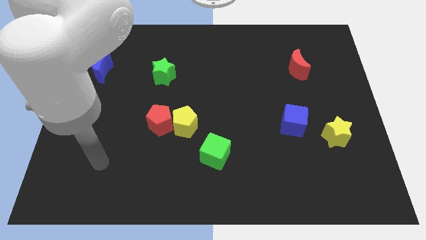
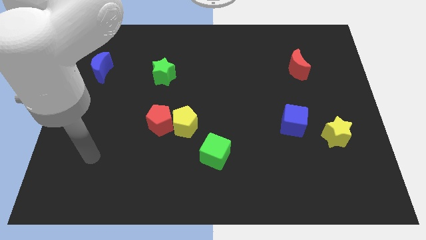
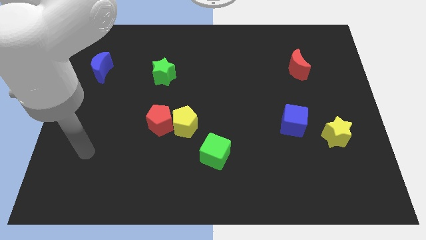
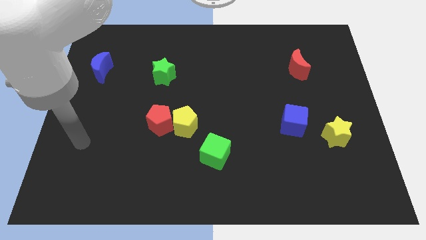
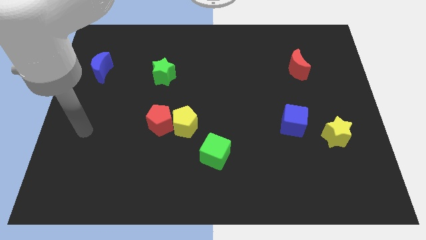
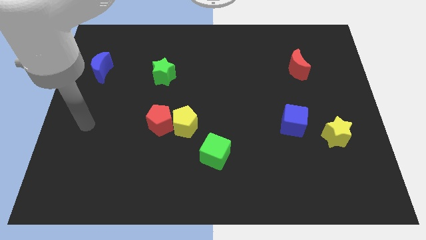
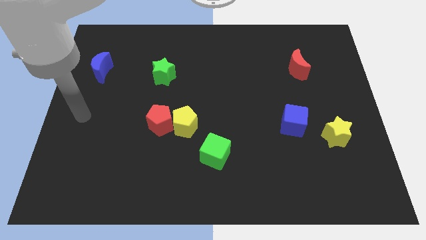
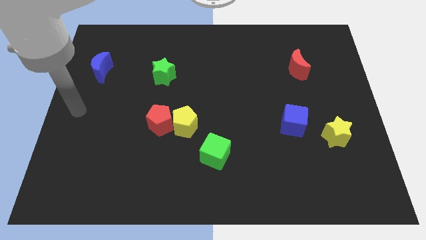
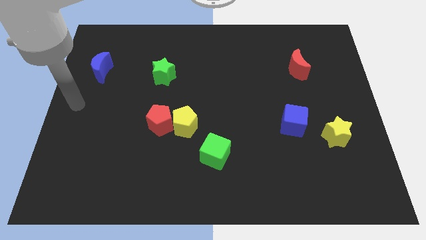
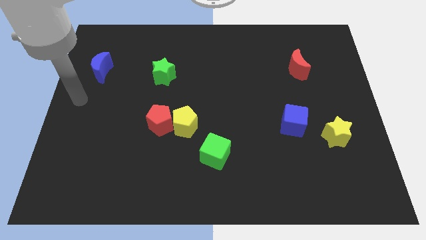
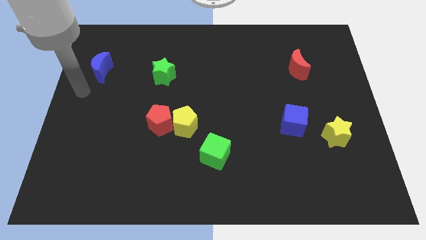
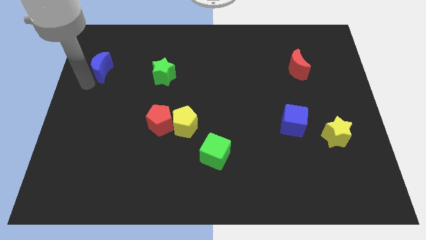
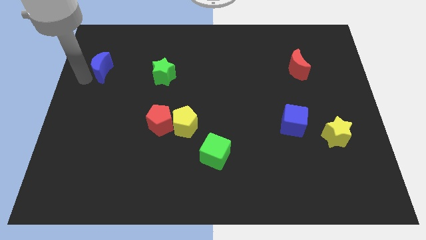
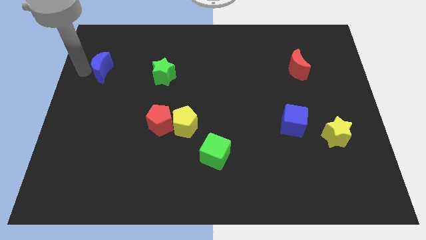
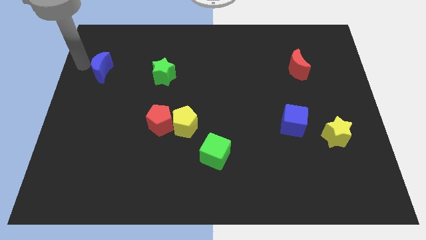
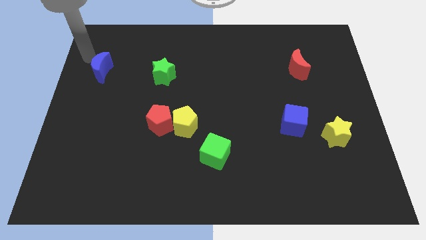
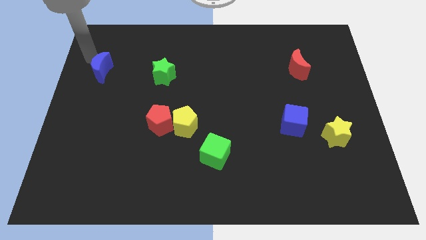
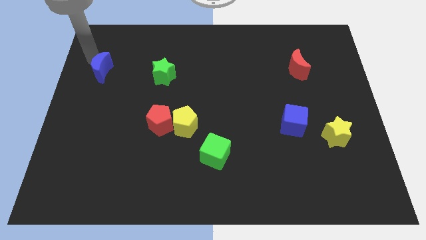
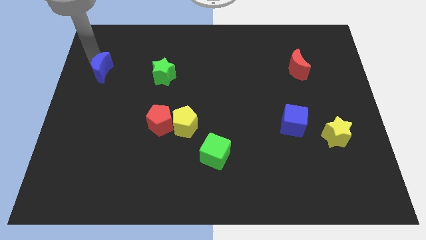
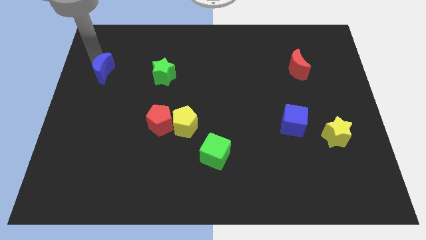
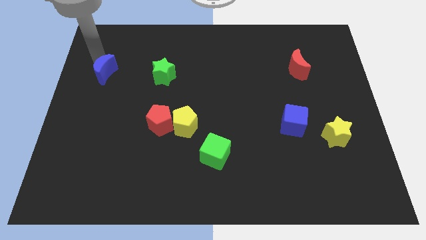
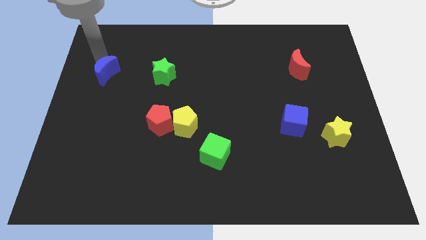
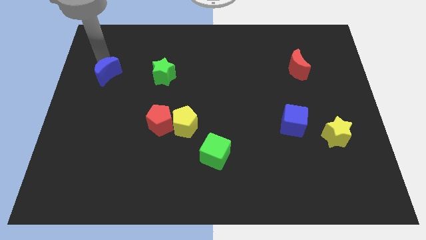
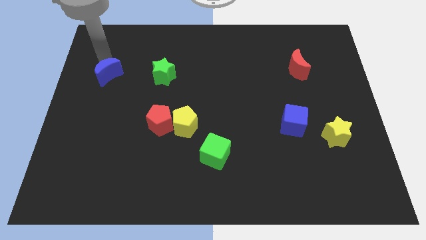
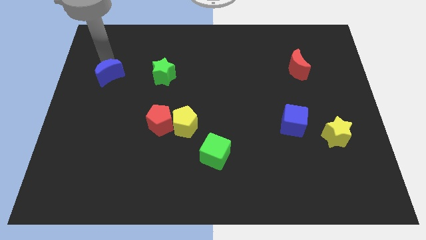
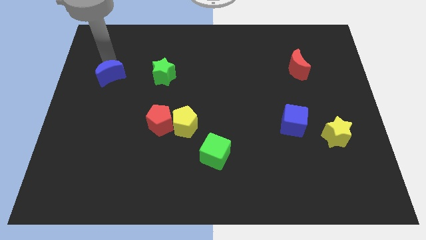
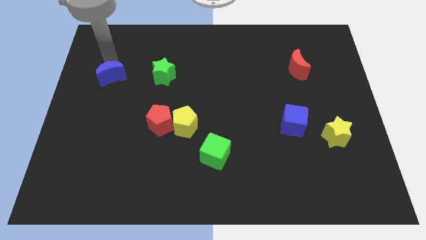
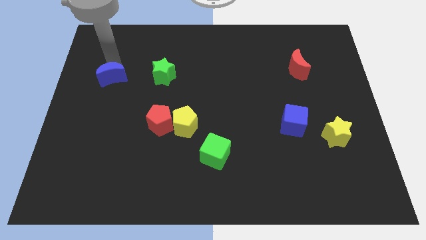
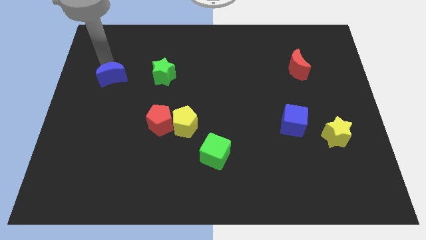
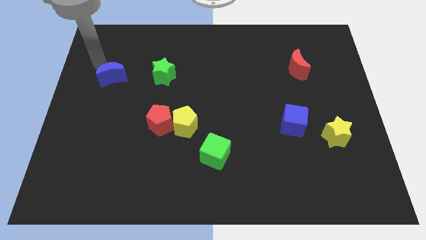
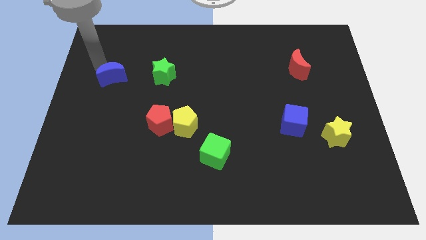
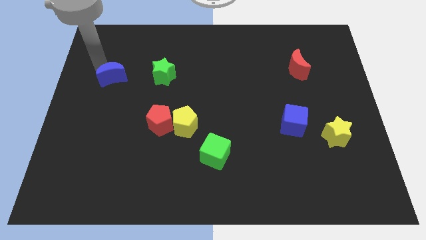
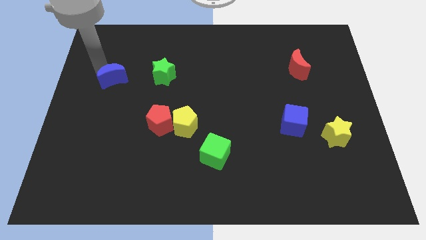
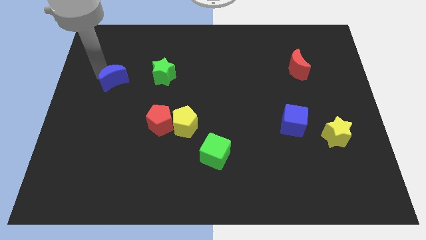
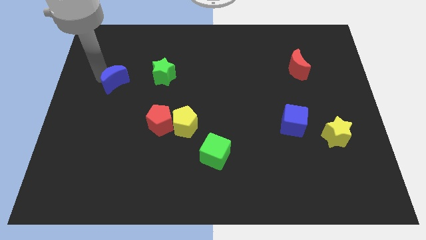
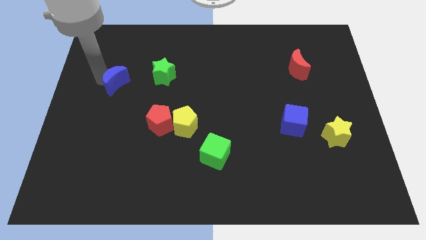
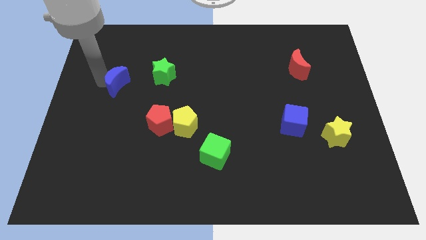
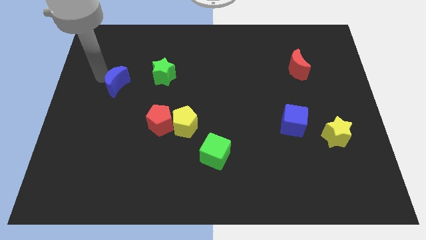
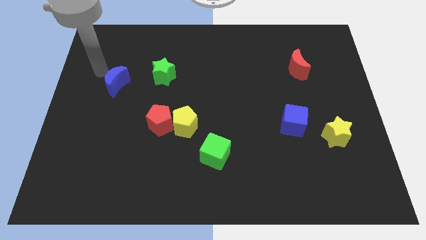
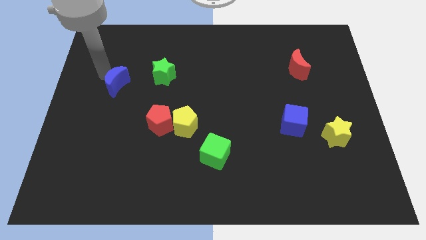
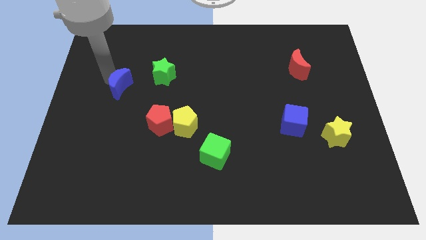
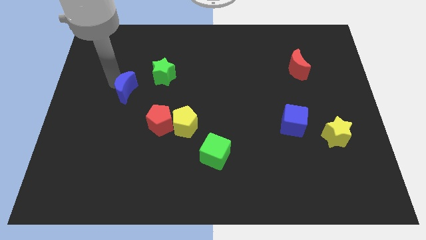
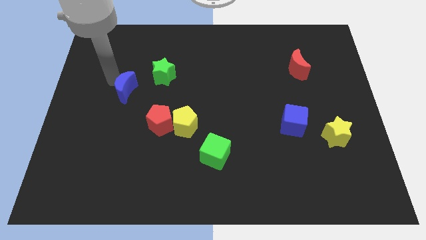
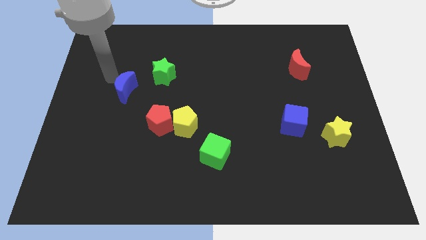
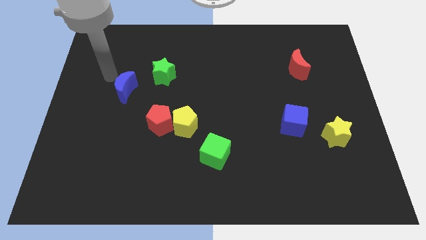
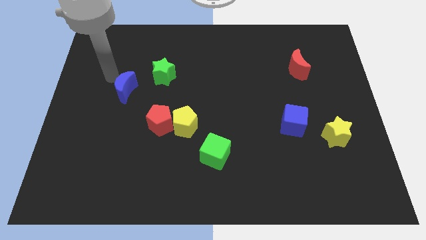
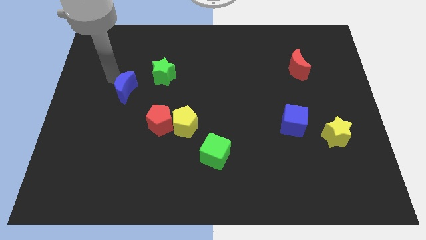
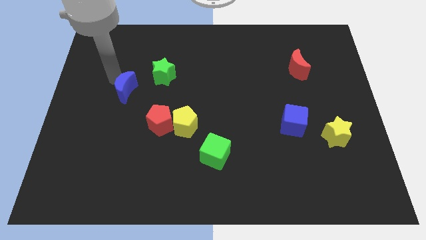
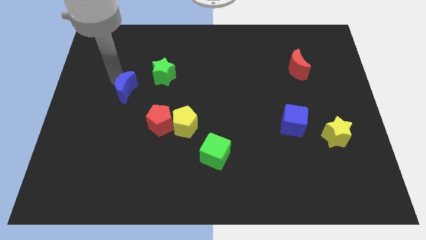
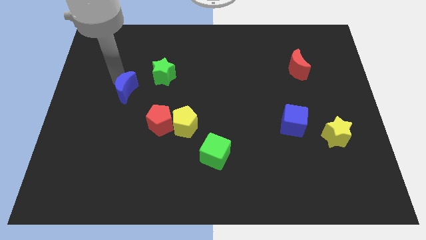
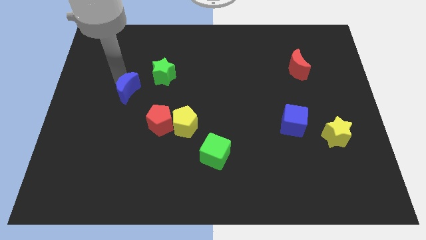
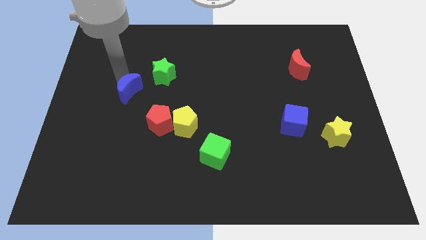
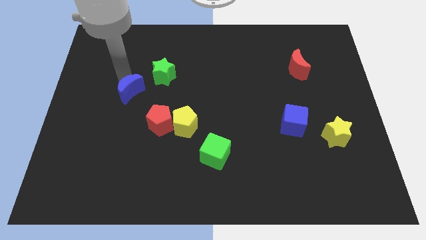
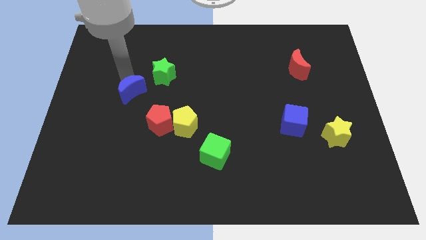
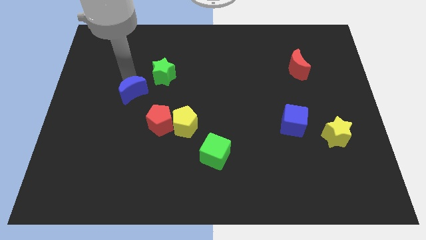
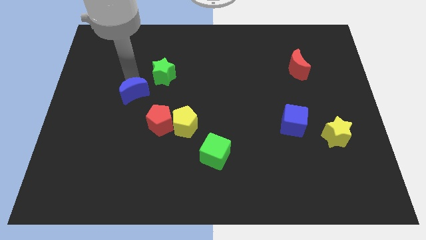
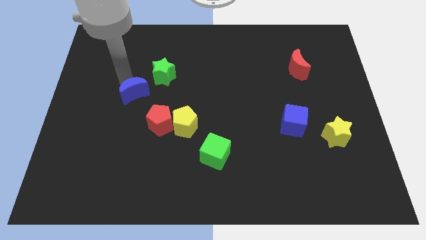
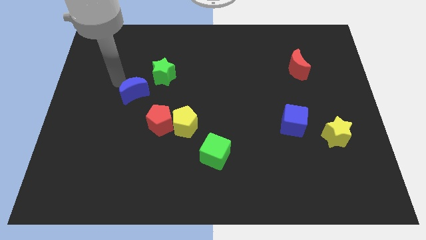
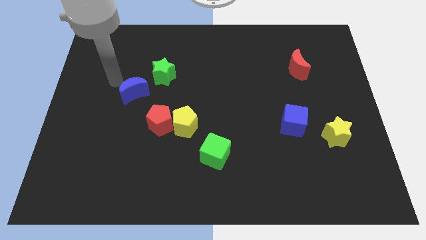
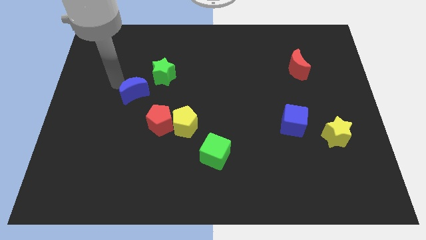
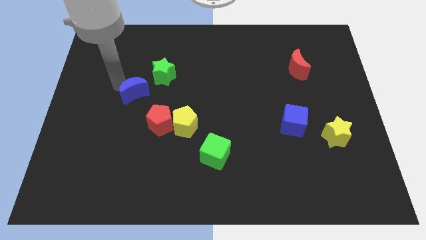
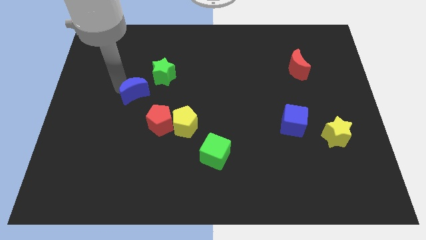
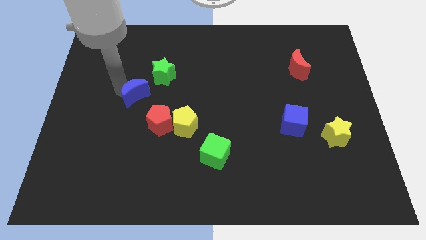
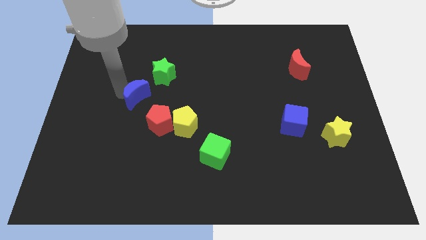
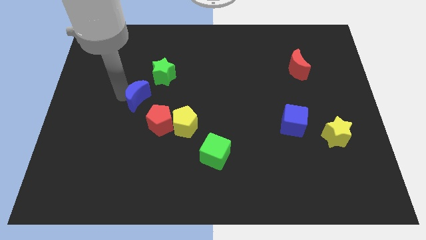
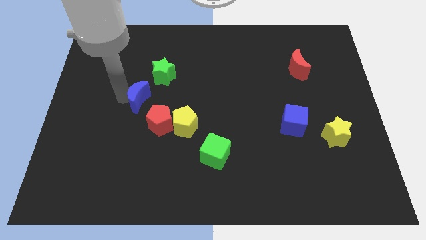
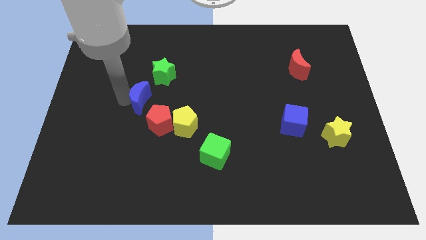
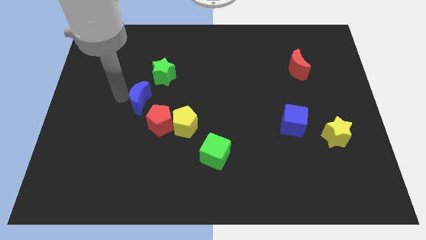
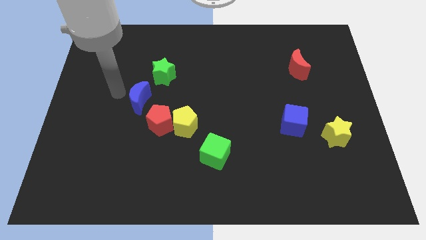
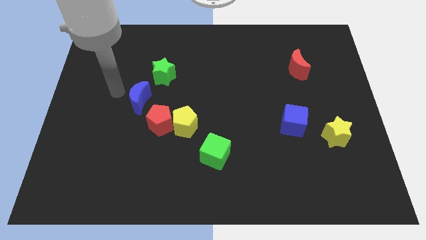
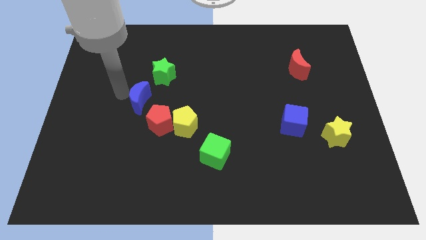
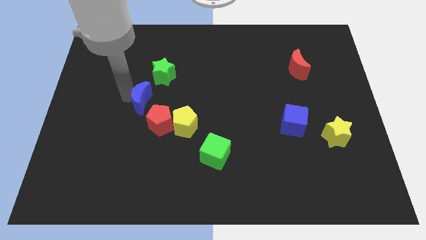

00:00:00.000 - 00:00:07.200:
put the blue moon below the green star
